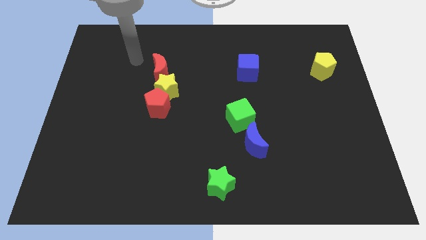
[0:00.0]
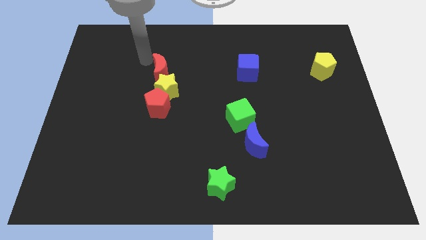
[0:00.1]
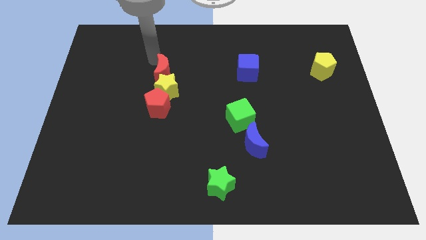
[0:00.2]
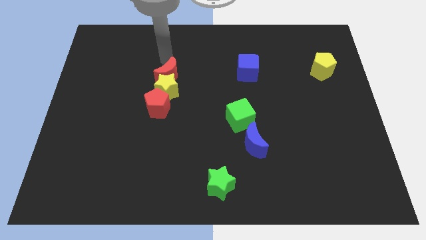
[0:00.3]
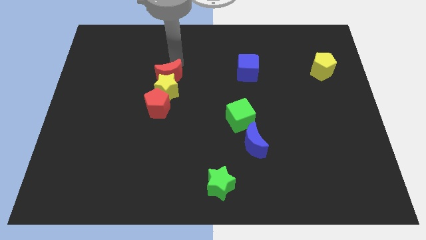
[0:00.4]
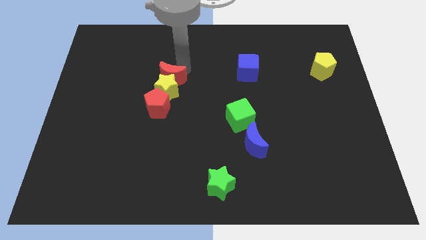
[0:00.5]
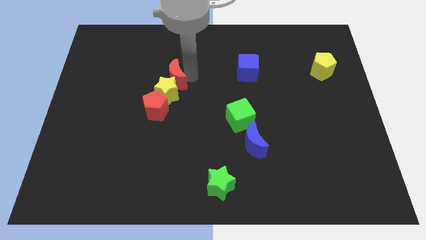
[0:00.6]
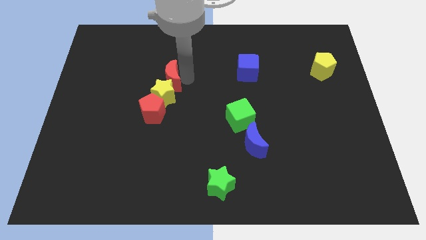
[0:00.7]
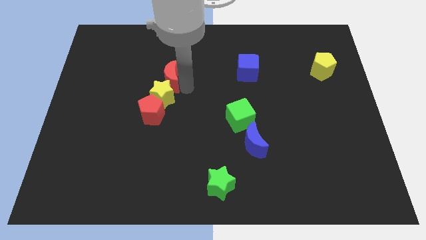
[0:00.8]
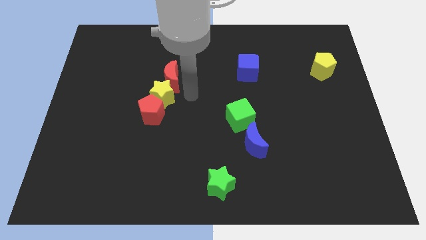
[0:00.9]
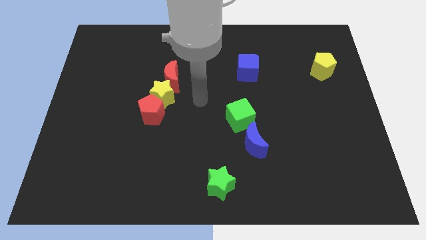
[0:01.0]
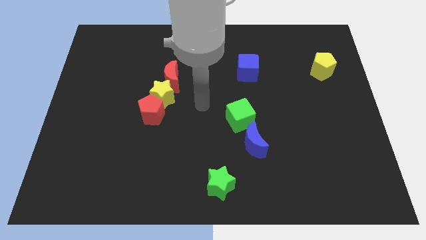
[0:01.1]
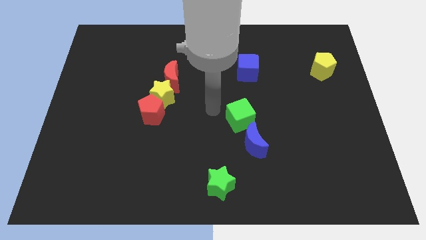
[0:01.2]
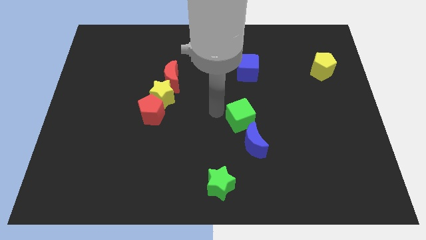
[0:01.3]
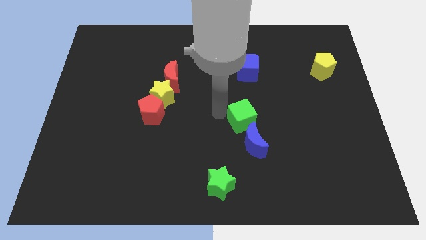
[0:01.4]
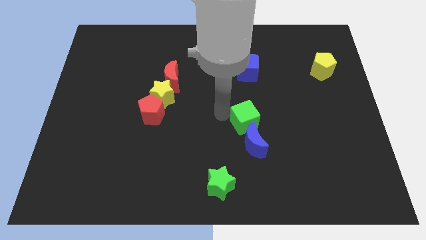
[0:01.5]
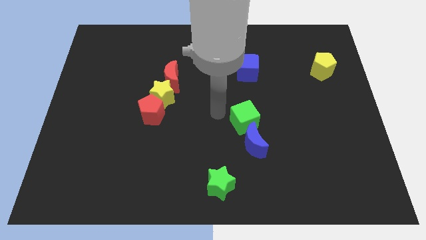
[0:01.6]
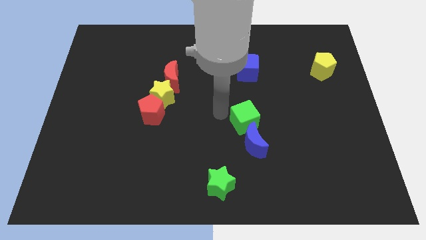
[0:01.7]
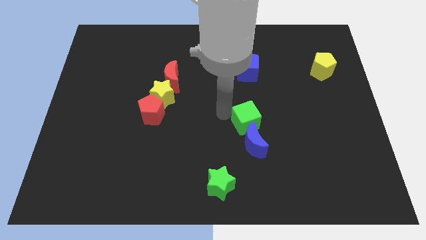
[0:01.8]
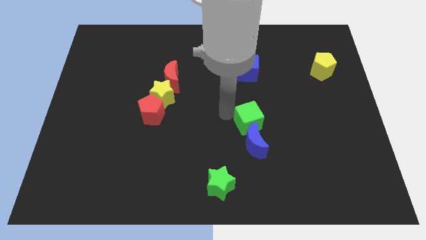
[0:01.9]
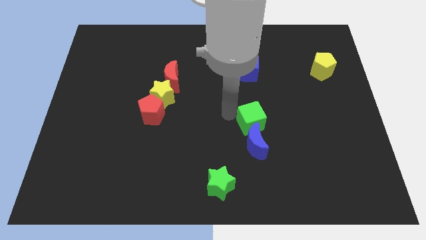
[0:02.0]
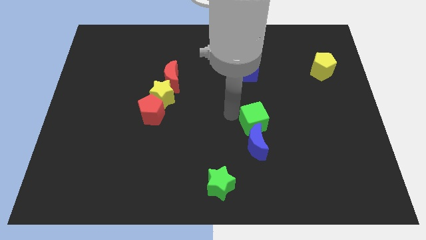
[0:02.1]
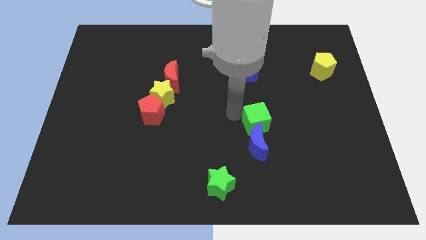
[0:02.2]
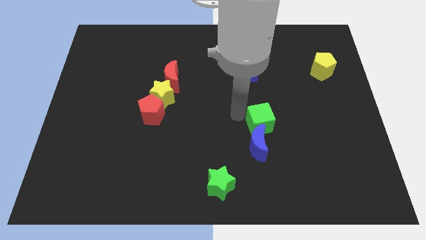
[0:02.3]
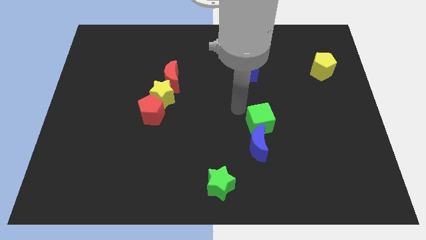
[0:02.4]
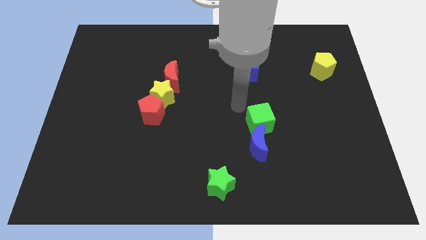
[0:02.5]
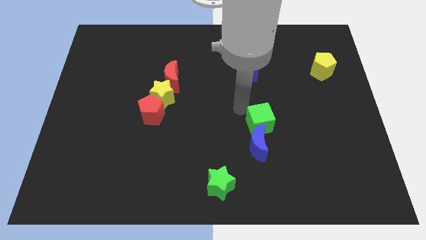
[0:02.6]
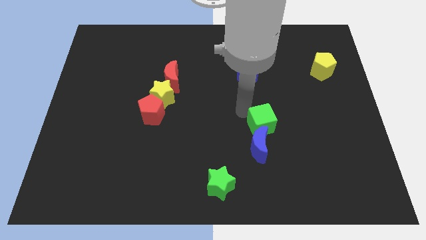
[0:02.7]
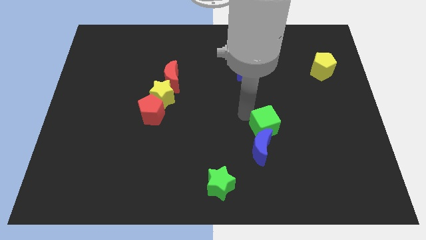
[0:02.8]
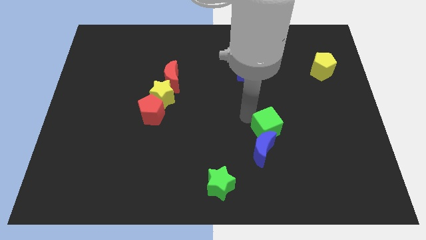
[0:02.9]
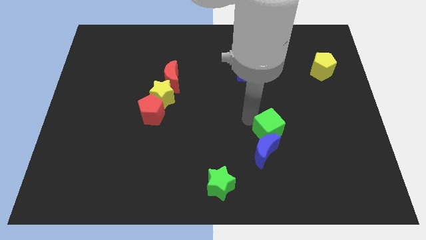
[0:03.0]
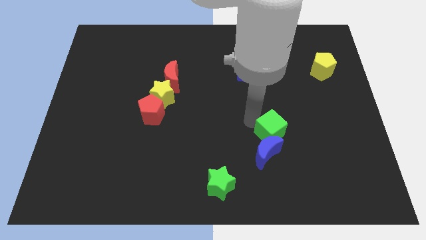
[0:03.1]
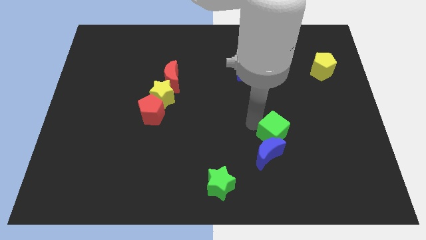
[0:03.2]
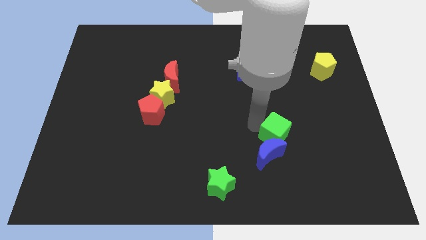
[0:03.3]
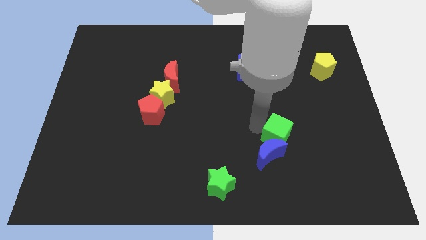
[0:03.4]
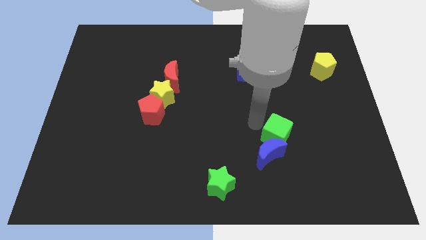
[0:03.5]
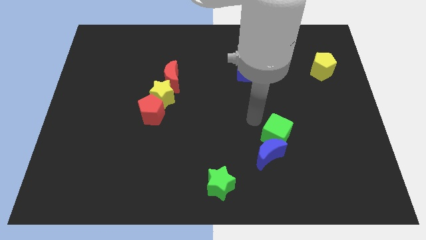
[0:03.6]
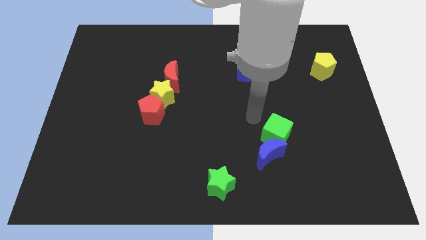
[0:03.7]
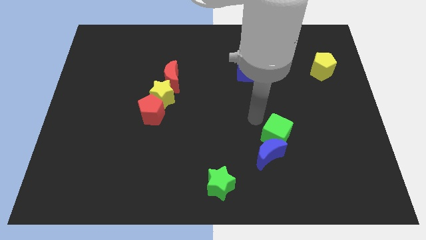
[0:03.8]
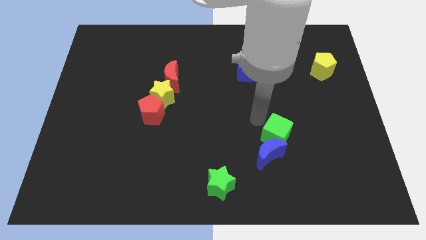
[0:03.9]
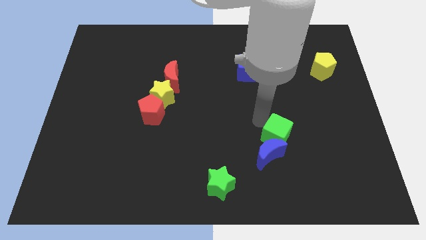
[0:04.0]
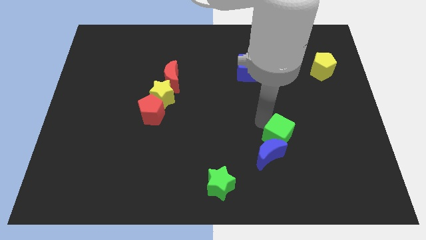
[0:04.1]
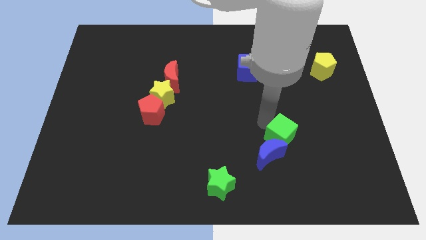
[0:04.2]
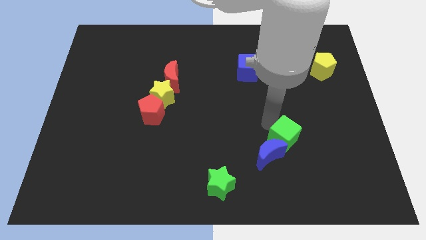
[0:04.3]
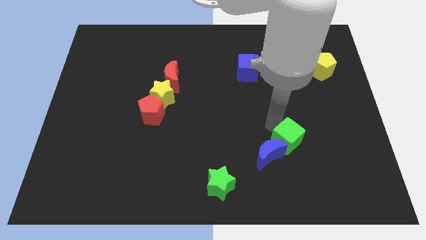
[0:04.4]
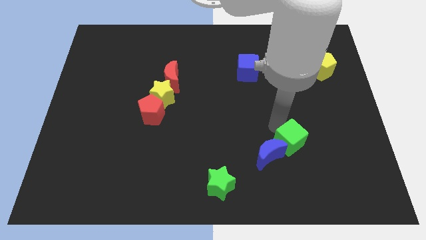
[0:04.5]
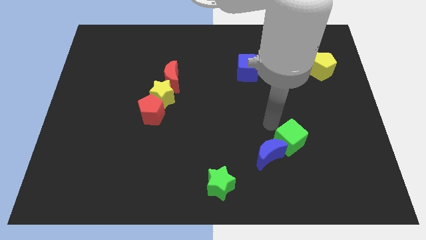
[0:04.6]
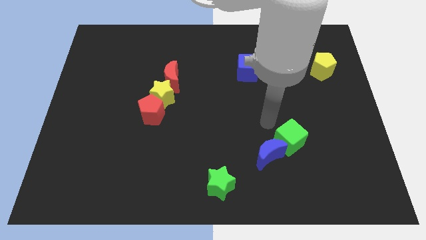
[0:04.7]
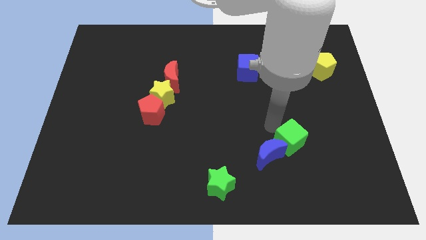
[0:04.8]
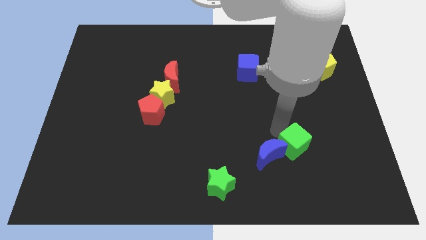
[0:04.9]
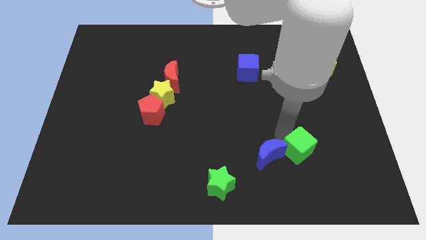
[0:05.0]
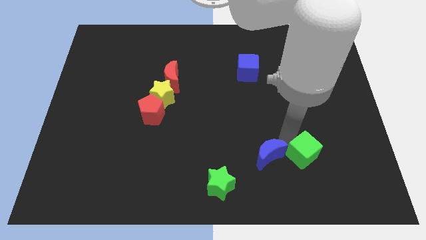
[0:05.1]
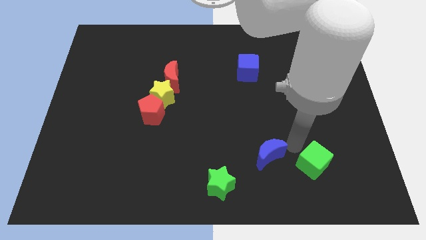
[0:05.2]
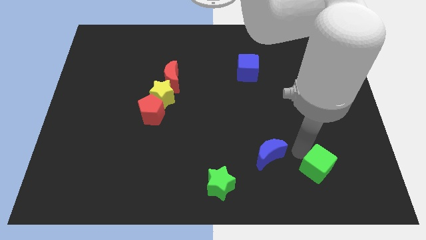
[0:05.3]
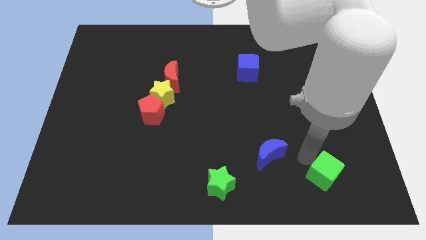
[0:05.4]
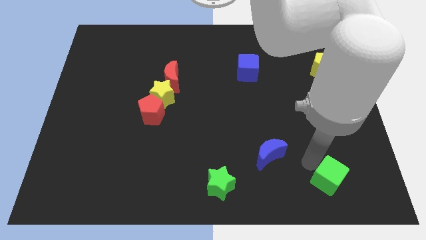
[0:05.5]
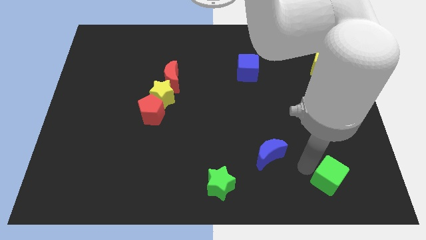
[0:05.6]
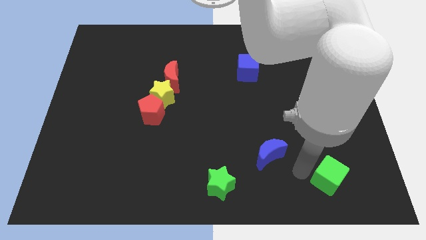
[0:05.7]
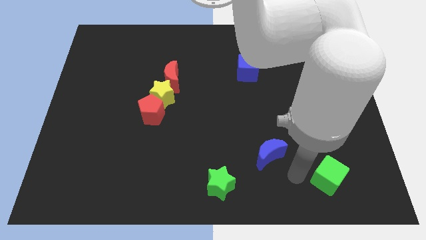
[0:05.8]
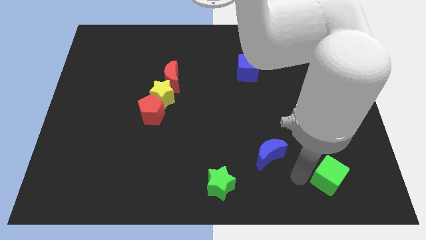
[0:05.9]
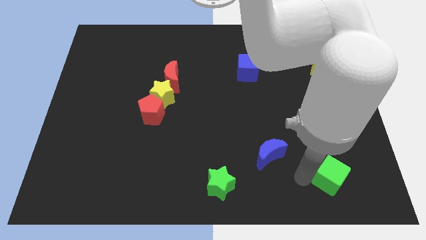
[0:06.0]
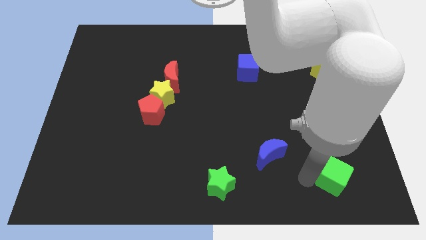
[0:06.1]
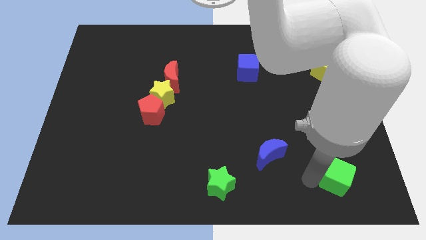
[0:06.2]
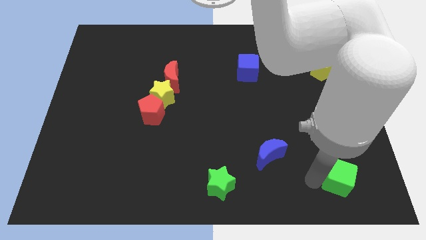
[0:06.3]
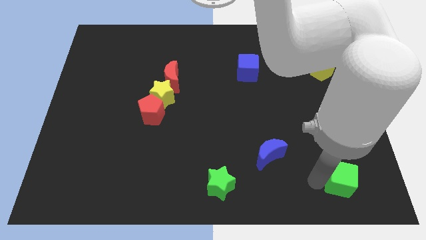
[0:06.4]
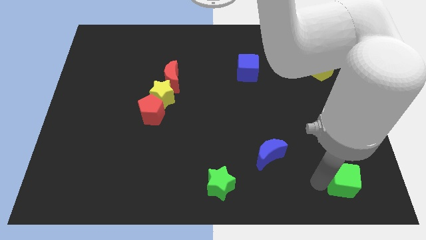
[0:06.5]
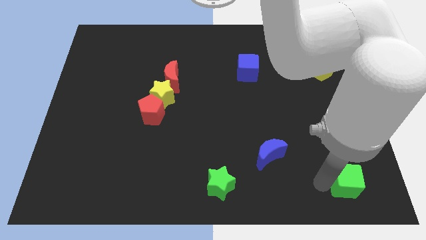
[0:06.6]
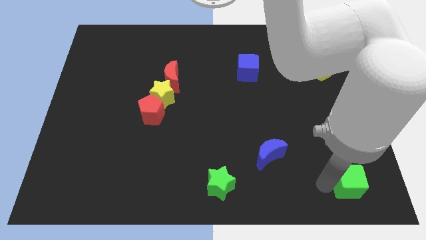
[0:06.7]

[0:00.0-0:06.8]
put the green cube to the bottom right corner

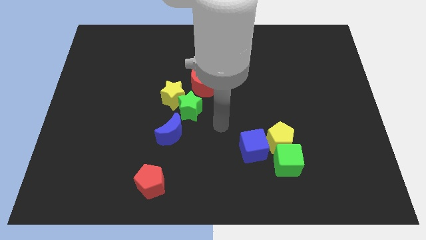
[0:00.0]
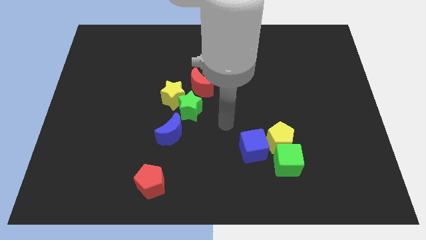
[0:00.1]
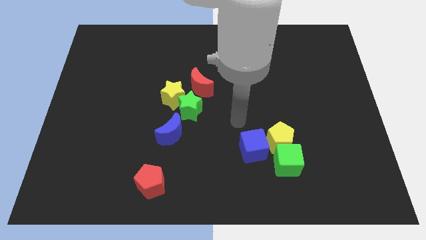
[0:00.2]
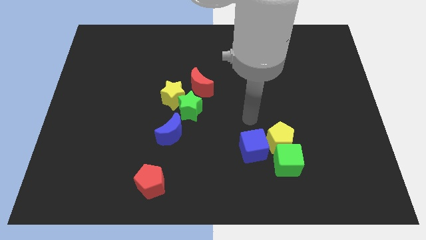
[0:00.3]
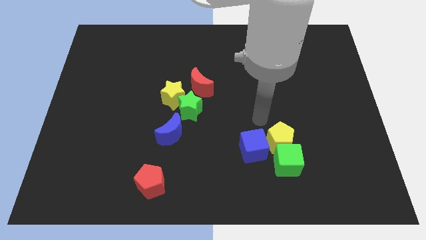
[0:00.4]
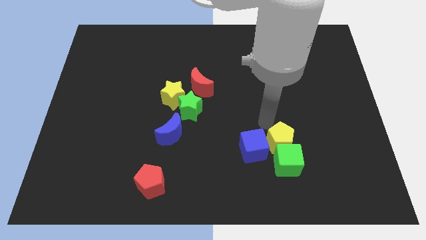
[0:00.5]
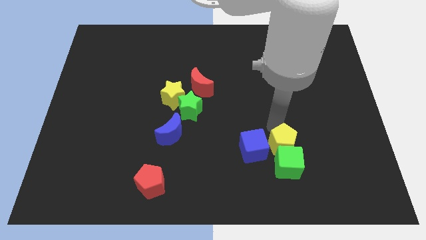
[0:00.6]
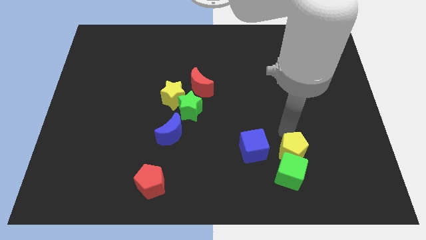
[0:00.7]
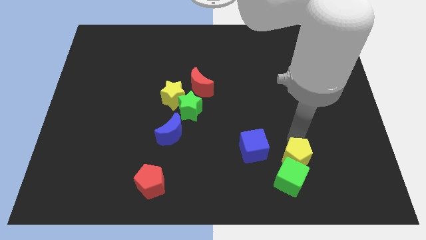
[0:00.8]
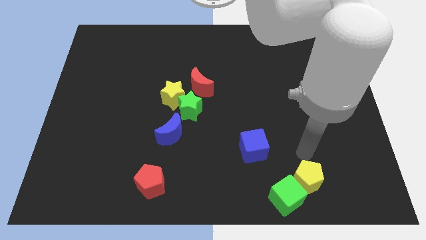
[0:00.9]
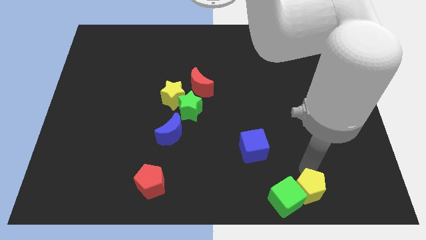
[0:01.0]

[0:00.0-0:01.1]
put the green cube to the bottom side
